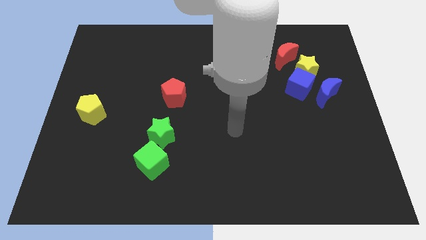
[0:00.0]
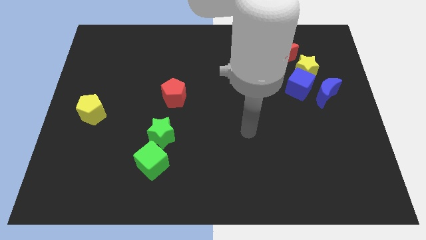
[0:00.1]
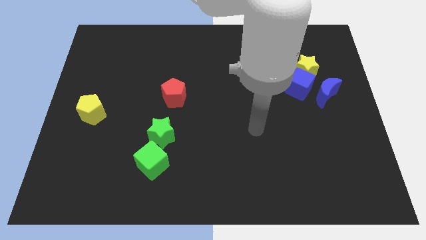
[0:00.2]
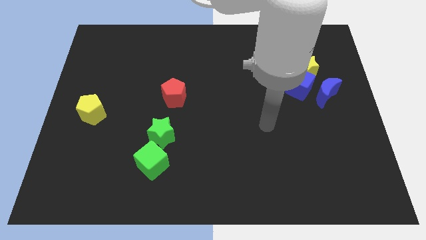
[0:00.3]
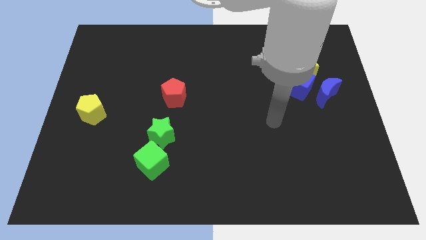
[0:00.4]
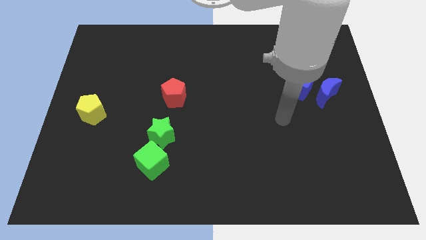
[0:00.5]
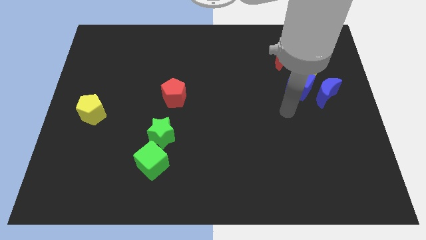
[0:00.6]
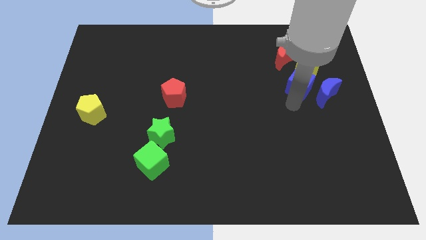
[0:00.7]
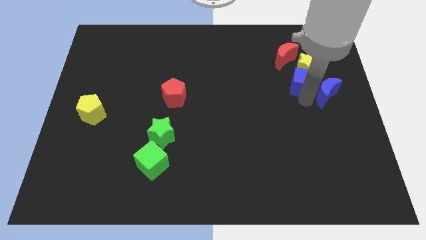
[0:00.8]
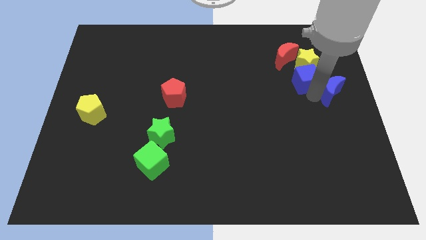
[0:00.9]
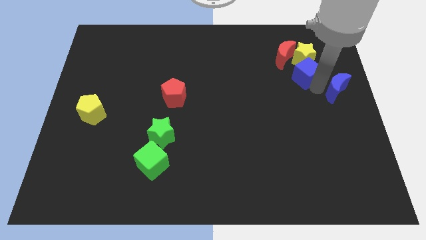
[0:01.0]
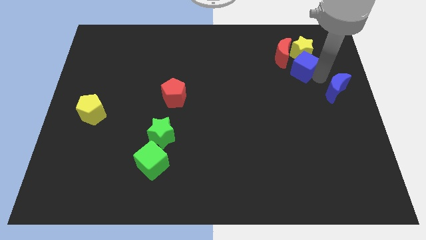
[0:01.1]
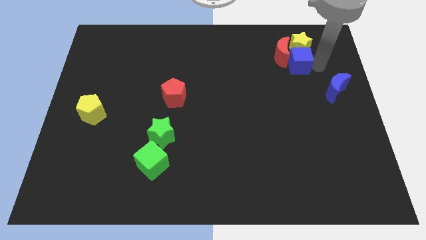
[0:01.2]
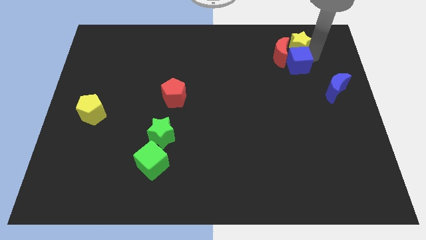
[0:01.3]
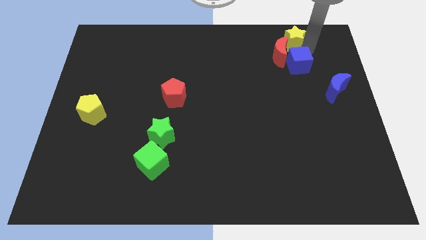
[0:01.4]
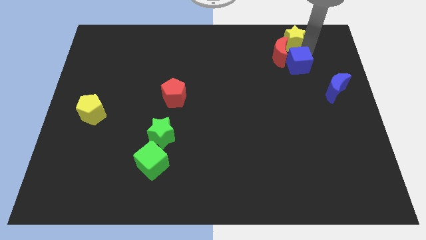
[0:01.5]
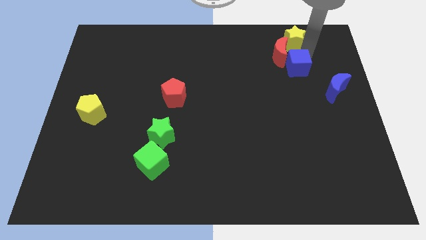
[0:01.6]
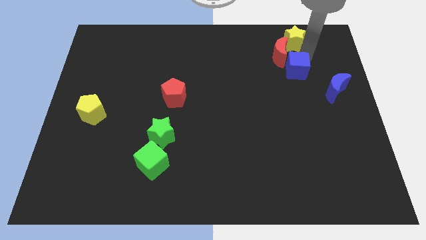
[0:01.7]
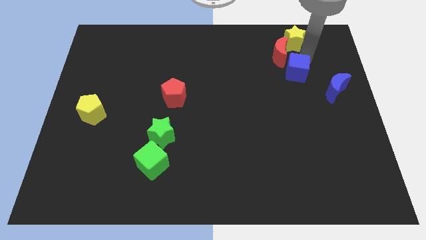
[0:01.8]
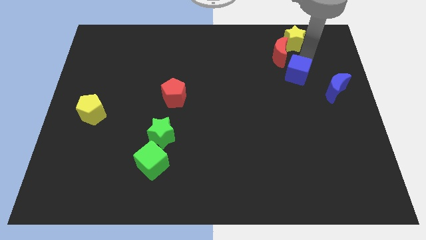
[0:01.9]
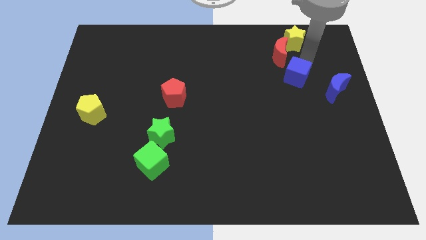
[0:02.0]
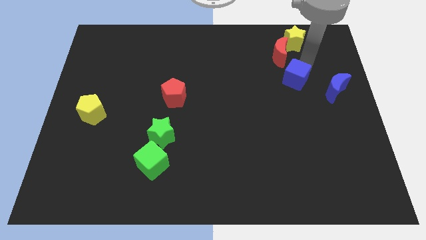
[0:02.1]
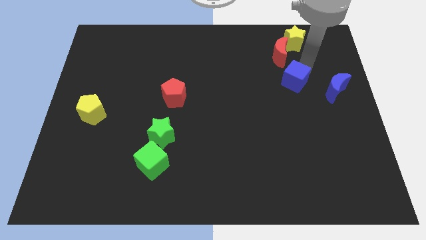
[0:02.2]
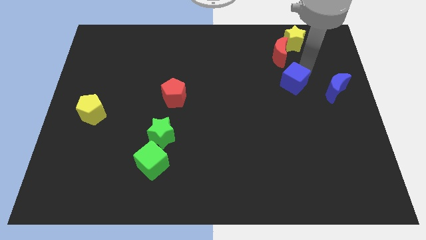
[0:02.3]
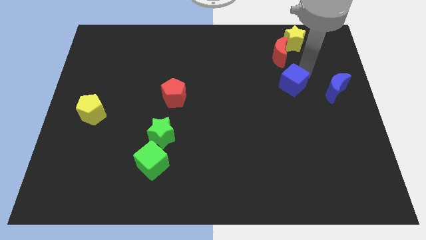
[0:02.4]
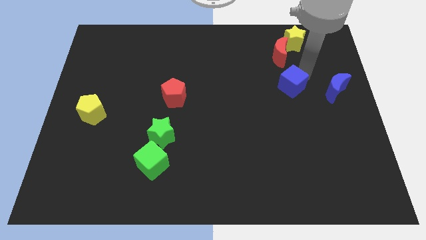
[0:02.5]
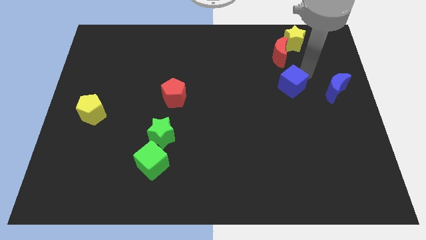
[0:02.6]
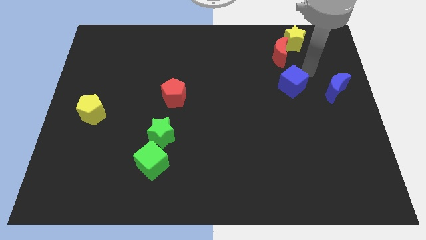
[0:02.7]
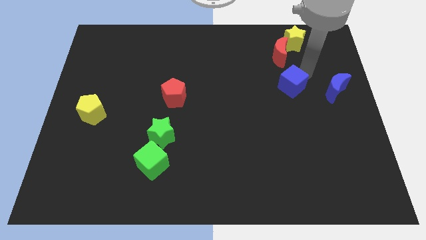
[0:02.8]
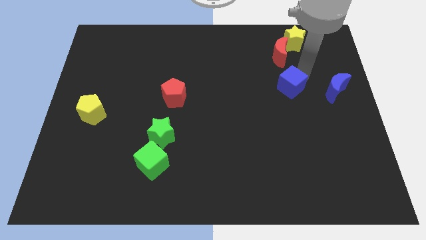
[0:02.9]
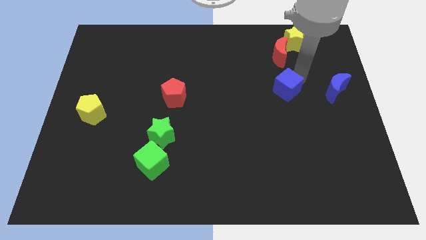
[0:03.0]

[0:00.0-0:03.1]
pull the blue cube apart from the yellow star and blue moon

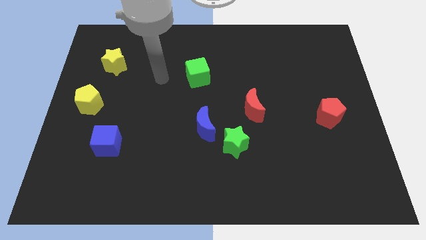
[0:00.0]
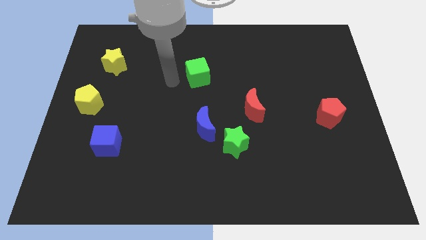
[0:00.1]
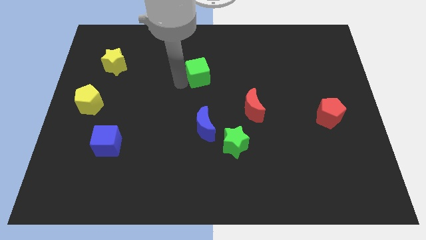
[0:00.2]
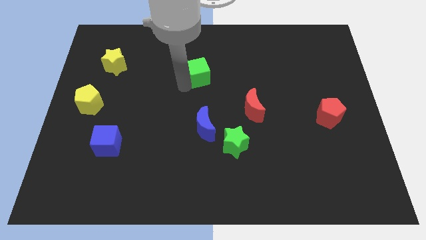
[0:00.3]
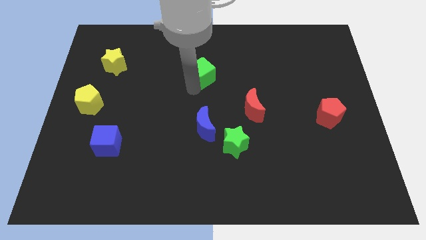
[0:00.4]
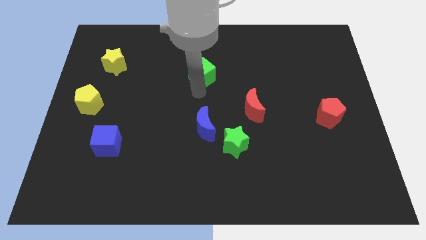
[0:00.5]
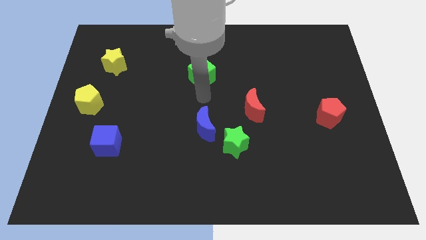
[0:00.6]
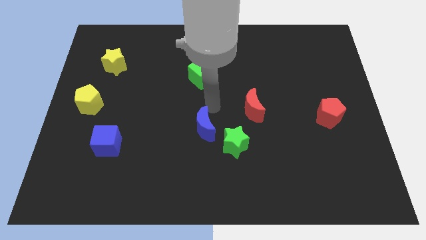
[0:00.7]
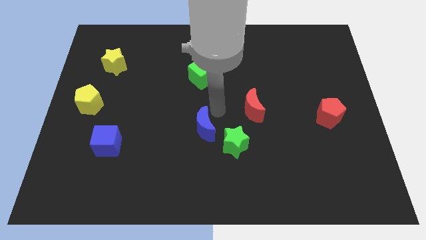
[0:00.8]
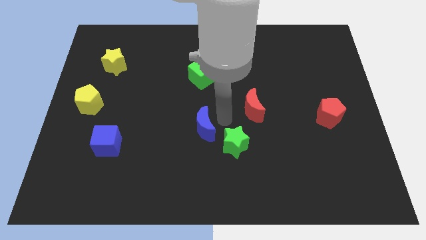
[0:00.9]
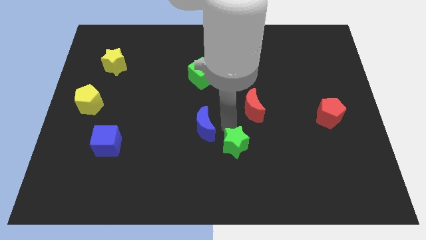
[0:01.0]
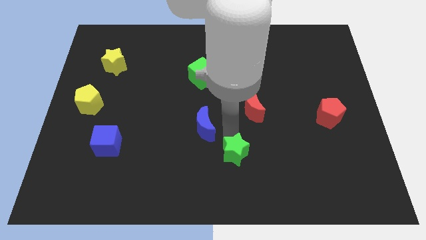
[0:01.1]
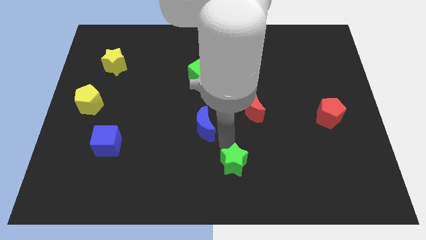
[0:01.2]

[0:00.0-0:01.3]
move the blue moon away from the green star

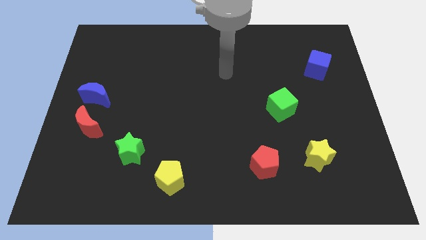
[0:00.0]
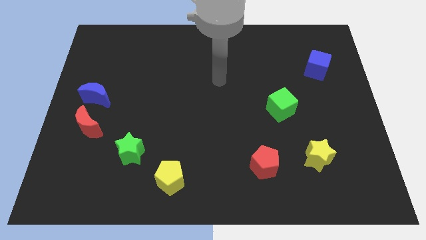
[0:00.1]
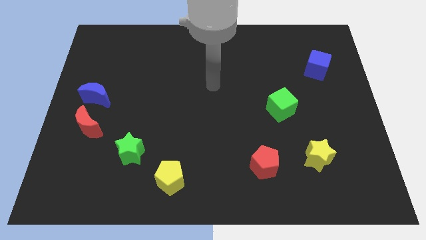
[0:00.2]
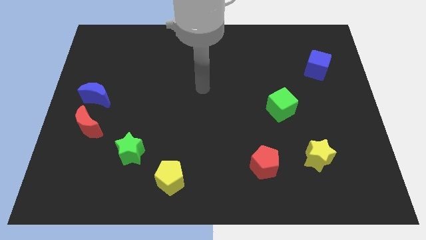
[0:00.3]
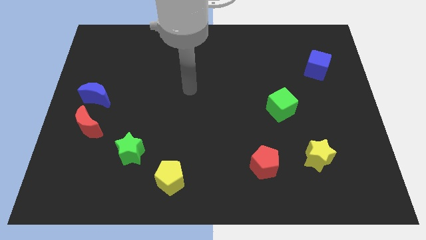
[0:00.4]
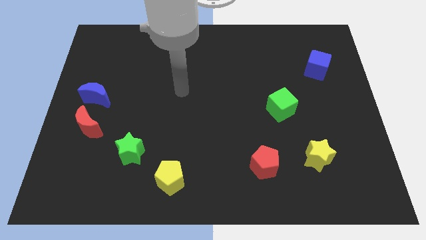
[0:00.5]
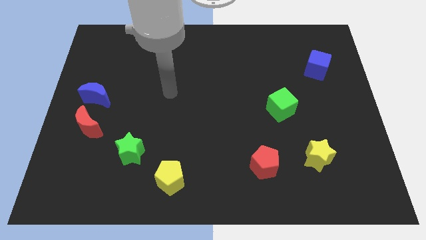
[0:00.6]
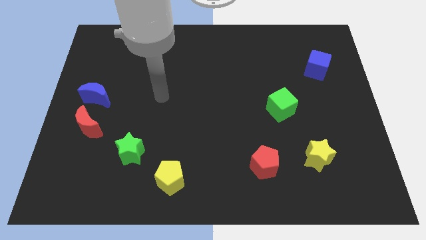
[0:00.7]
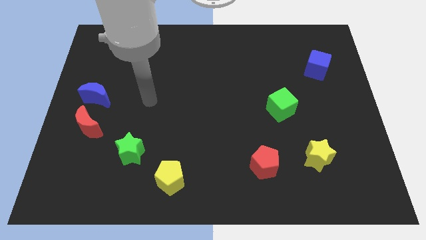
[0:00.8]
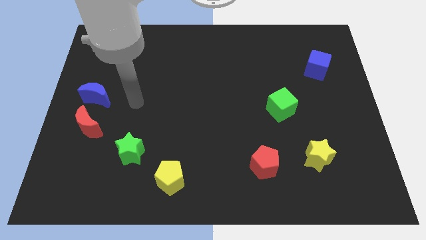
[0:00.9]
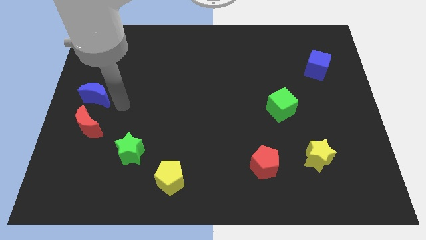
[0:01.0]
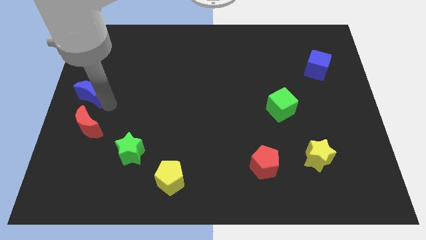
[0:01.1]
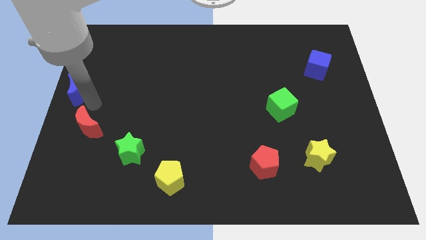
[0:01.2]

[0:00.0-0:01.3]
separate the red moon from the blue moon

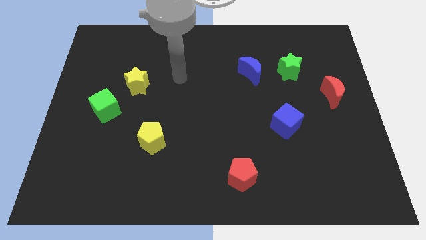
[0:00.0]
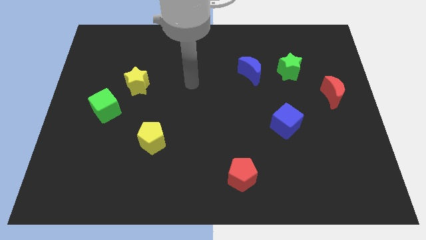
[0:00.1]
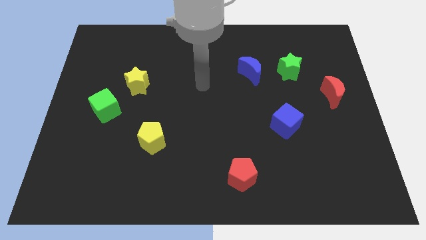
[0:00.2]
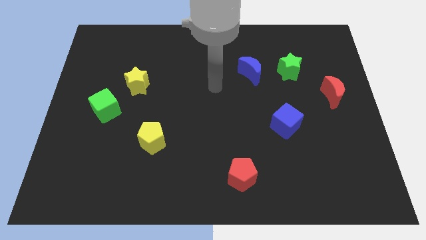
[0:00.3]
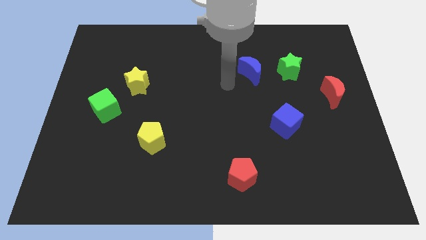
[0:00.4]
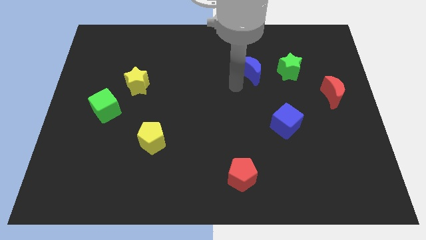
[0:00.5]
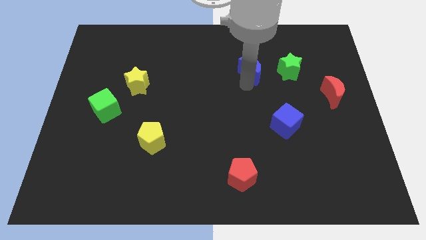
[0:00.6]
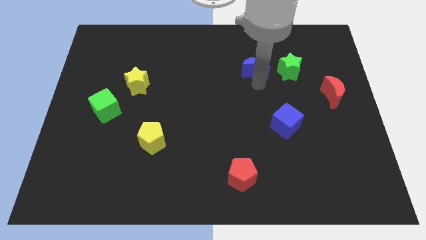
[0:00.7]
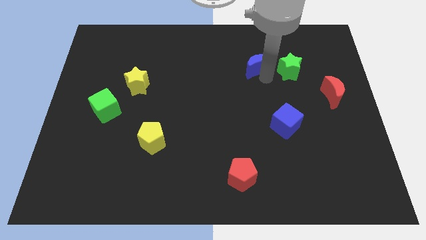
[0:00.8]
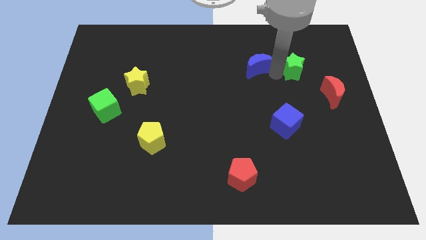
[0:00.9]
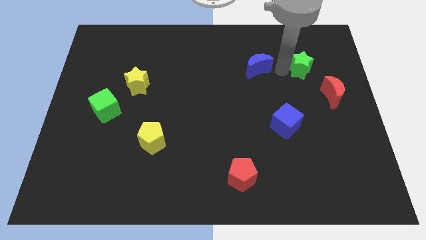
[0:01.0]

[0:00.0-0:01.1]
separate the blue moon from the green star

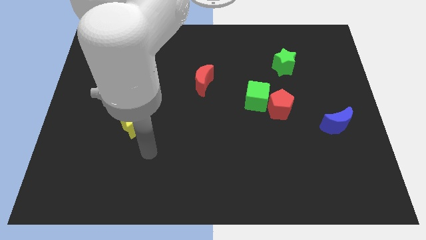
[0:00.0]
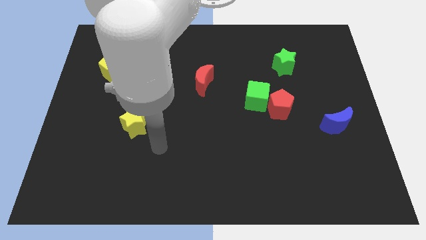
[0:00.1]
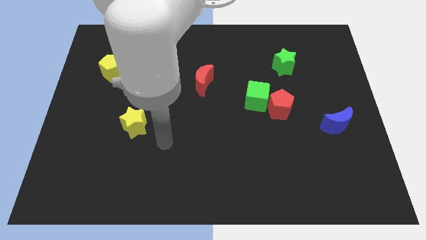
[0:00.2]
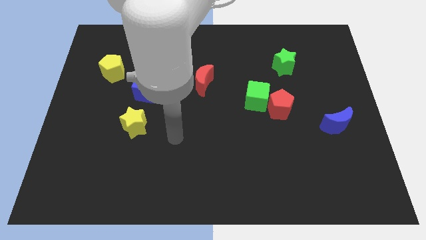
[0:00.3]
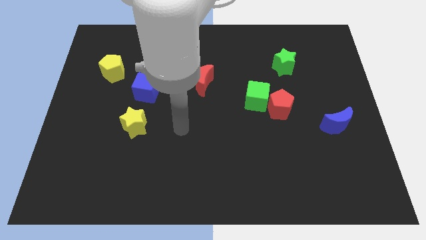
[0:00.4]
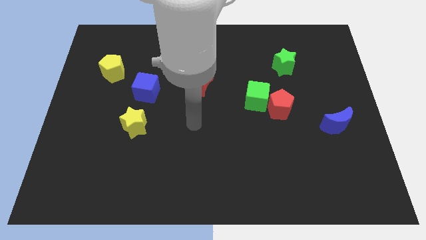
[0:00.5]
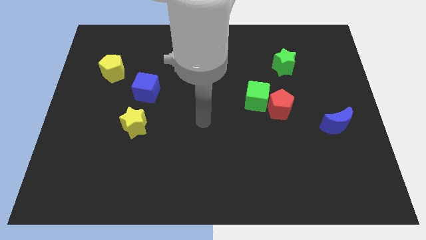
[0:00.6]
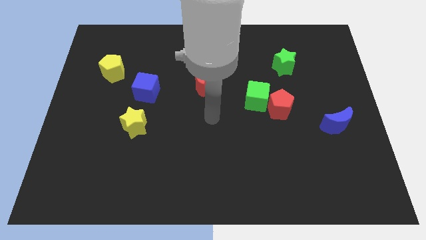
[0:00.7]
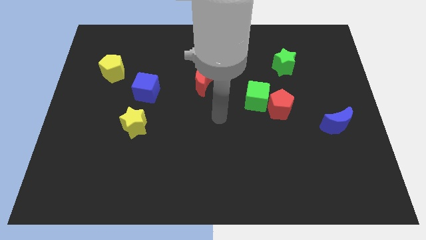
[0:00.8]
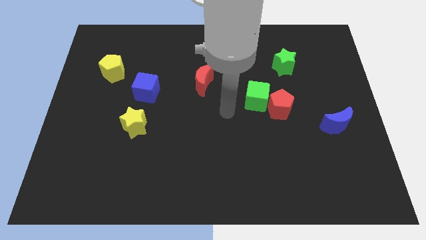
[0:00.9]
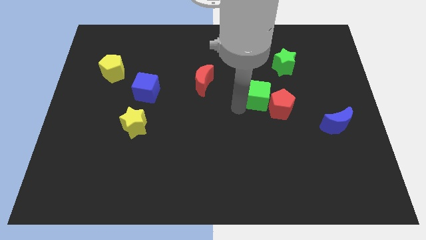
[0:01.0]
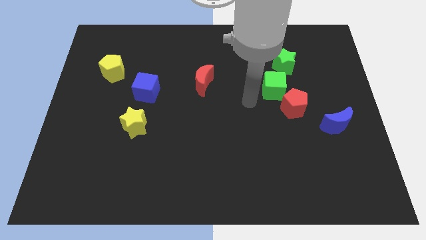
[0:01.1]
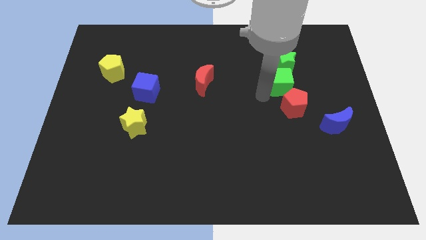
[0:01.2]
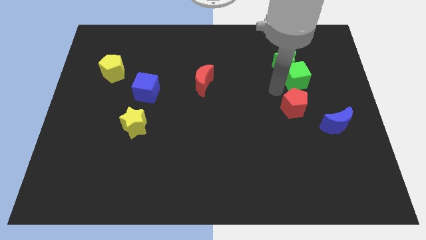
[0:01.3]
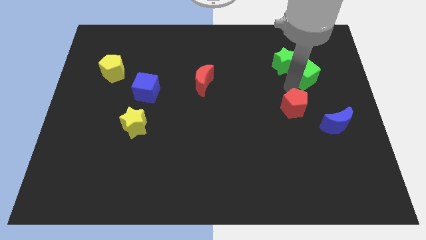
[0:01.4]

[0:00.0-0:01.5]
pull the red pentagon apart from the green cube

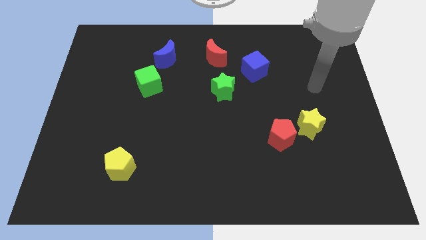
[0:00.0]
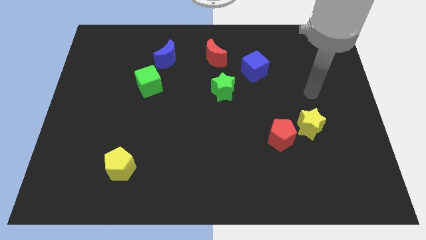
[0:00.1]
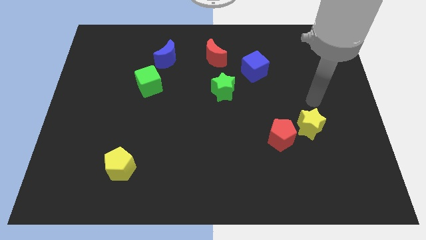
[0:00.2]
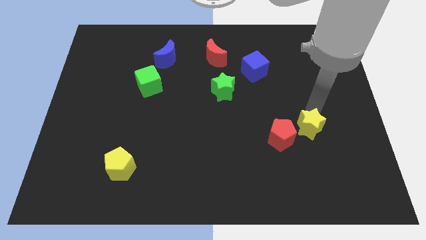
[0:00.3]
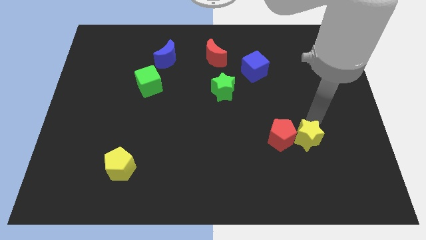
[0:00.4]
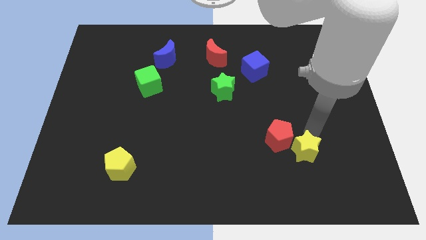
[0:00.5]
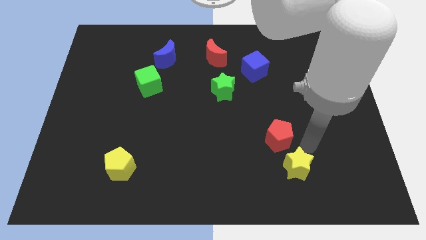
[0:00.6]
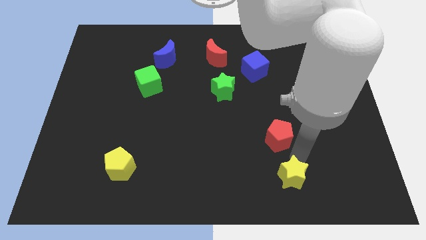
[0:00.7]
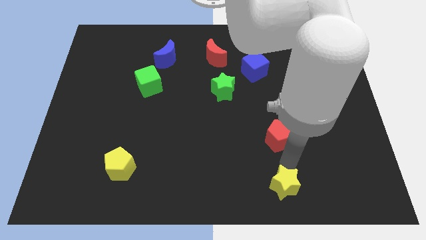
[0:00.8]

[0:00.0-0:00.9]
pull the red pentagon apart from the yellow star
